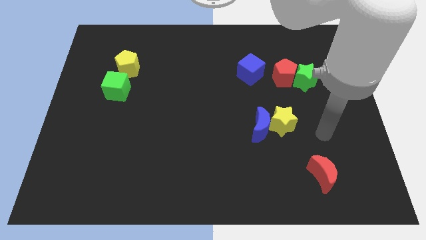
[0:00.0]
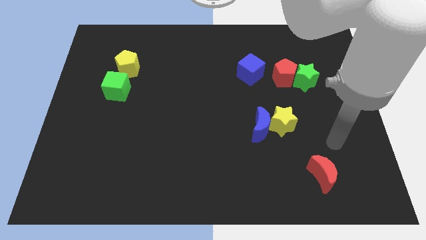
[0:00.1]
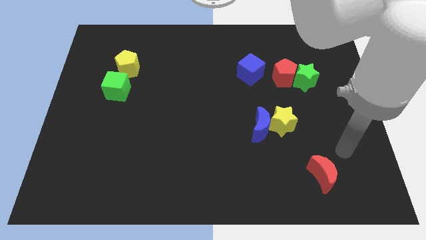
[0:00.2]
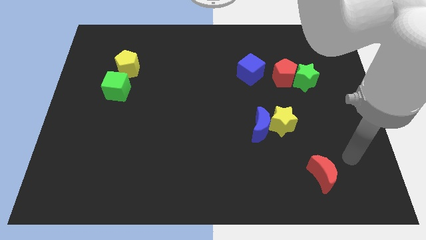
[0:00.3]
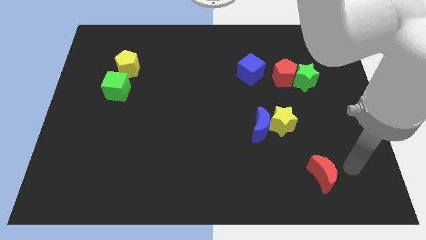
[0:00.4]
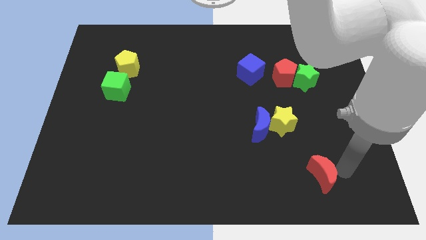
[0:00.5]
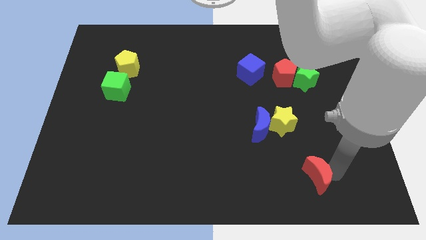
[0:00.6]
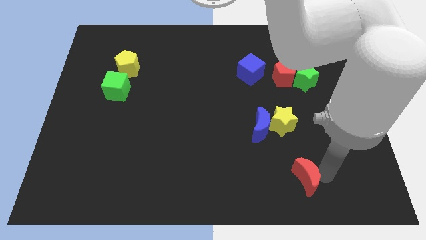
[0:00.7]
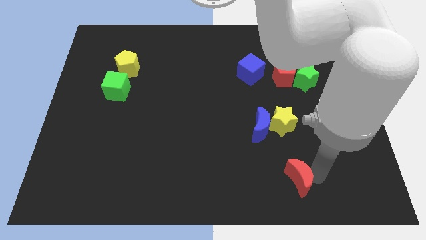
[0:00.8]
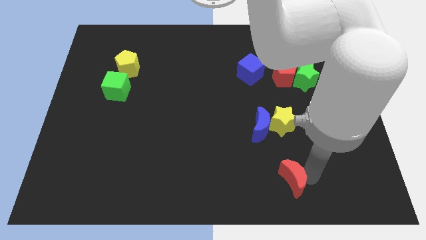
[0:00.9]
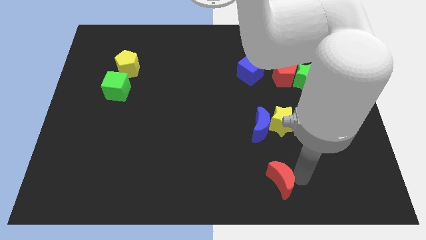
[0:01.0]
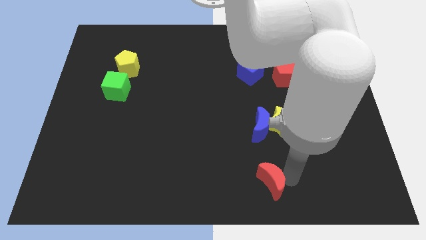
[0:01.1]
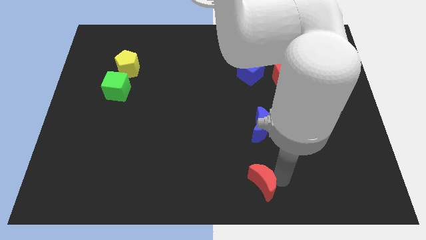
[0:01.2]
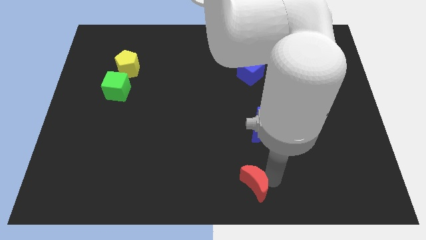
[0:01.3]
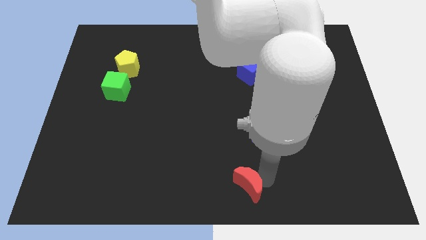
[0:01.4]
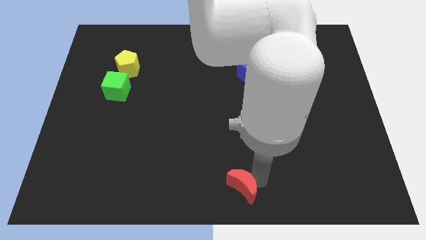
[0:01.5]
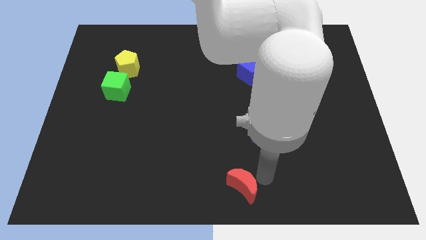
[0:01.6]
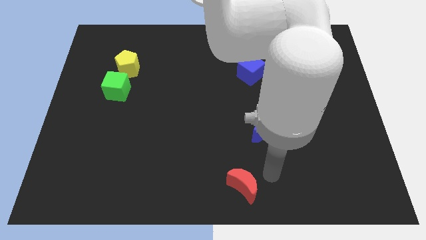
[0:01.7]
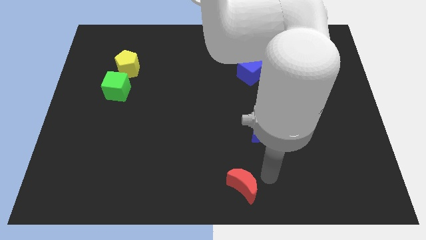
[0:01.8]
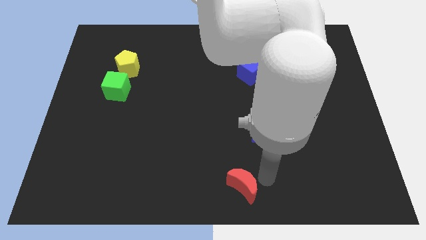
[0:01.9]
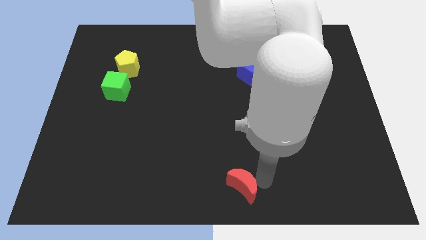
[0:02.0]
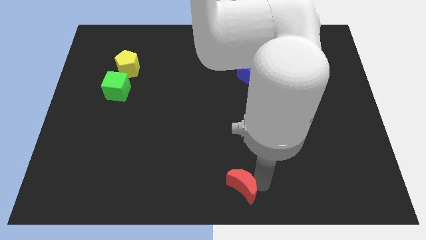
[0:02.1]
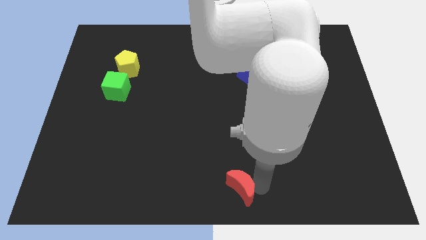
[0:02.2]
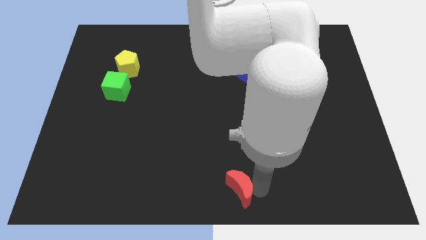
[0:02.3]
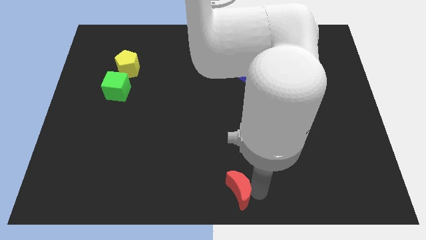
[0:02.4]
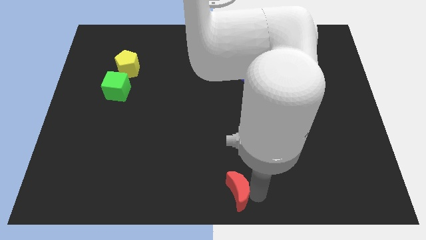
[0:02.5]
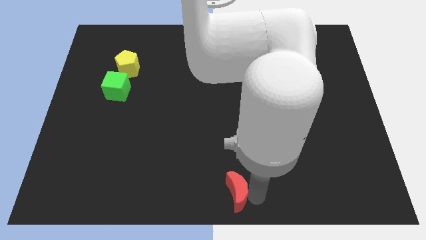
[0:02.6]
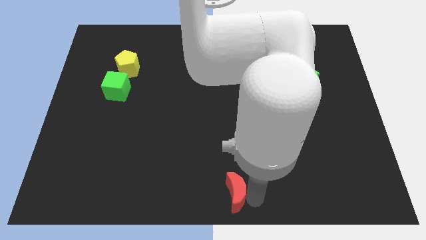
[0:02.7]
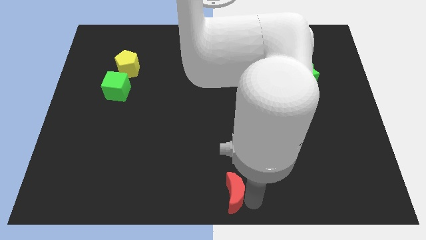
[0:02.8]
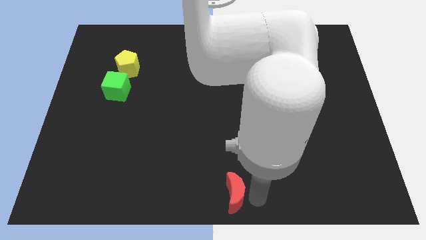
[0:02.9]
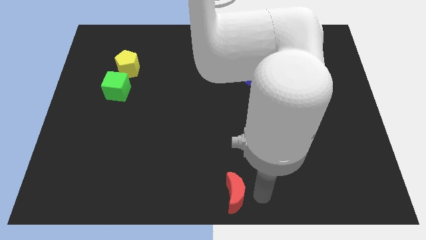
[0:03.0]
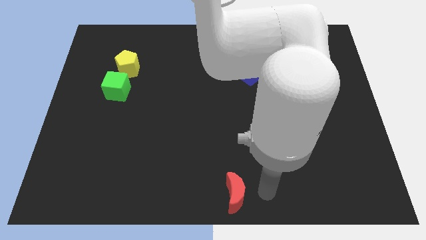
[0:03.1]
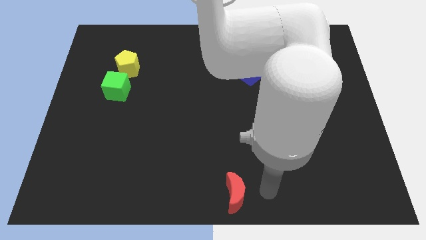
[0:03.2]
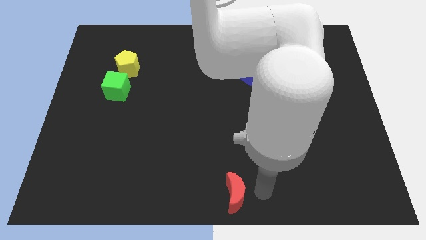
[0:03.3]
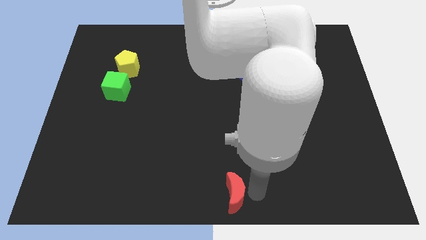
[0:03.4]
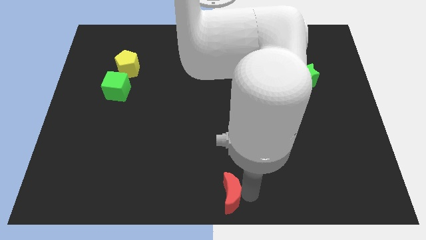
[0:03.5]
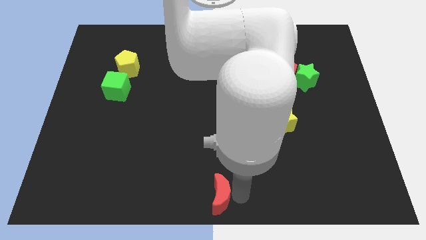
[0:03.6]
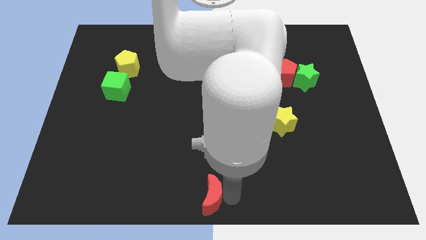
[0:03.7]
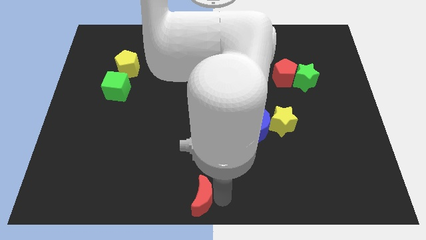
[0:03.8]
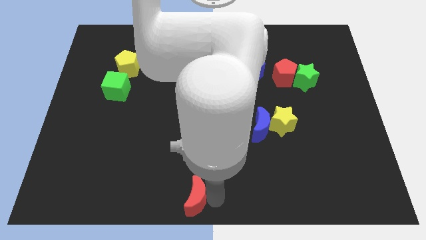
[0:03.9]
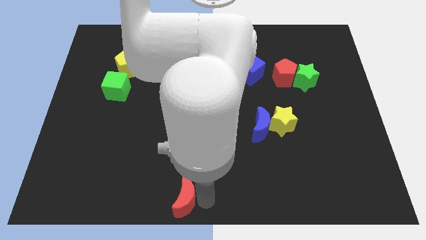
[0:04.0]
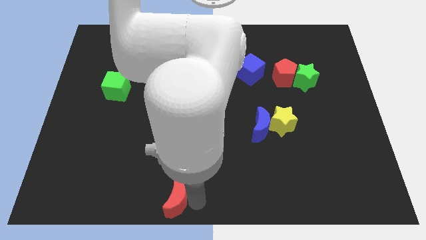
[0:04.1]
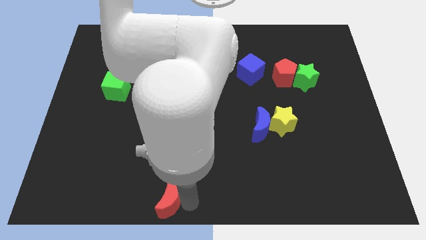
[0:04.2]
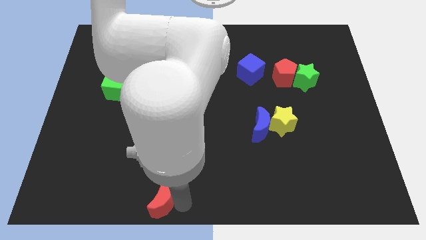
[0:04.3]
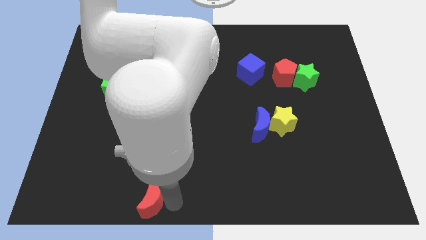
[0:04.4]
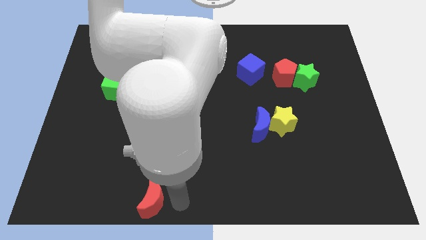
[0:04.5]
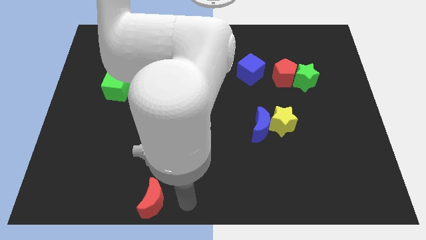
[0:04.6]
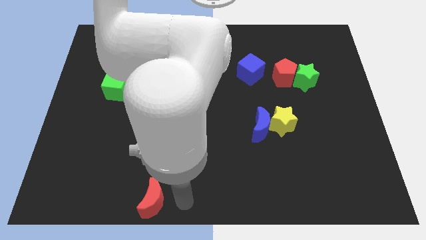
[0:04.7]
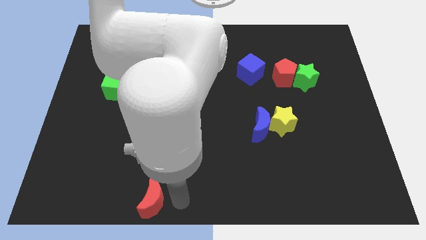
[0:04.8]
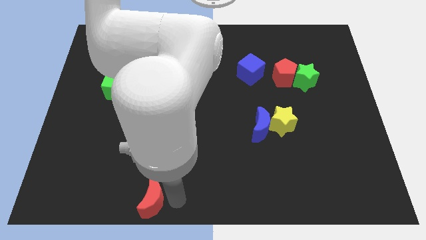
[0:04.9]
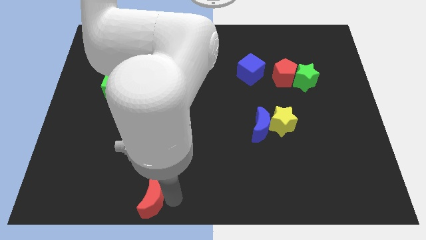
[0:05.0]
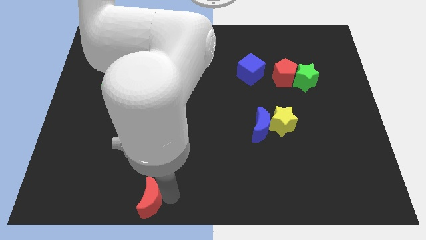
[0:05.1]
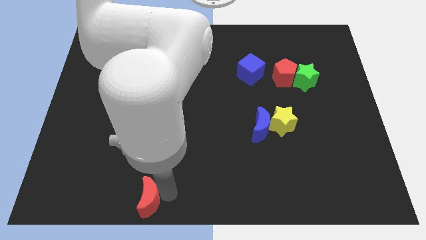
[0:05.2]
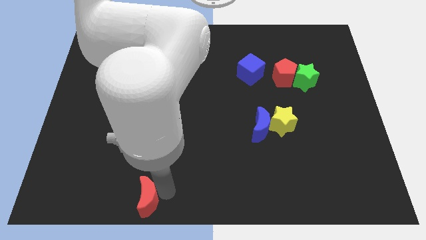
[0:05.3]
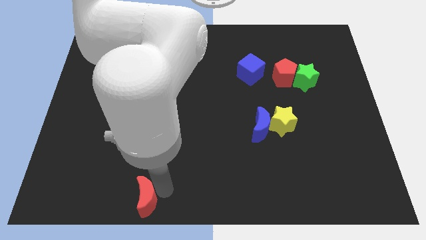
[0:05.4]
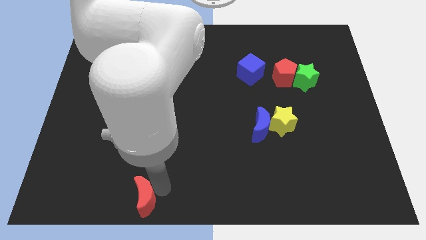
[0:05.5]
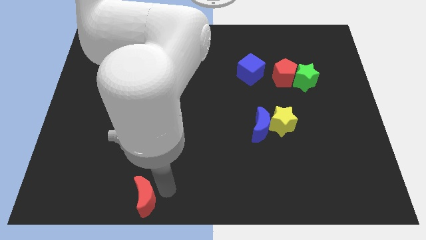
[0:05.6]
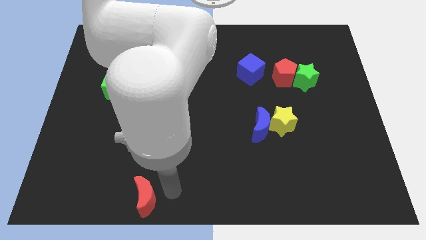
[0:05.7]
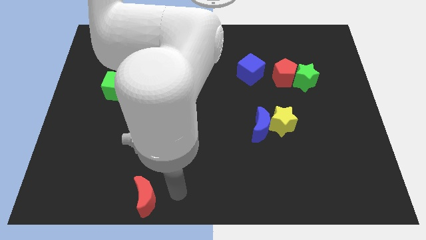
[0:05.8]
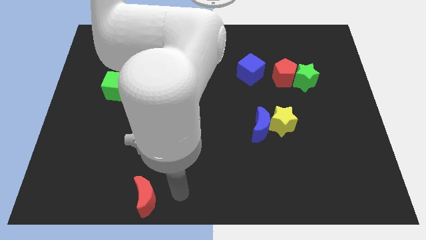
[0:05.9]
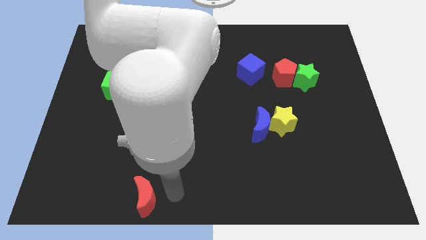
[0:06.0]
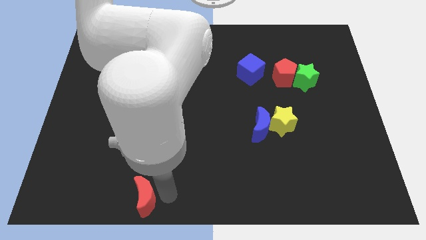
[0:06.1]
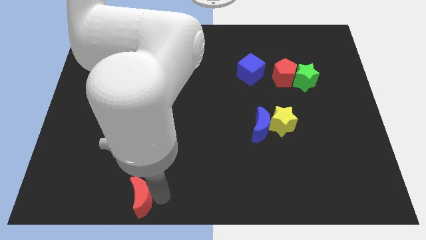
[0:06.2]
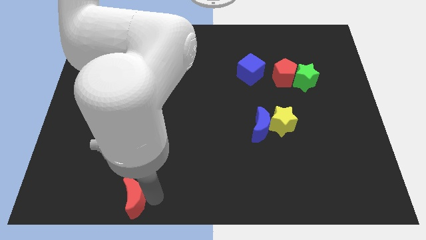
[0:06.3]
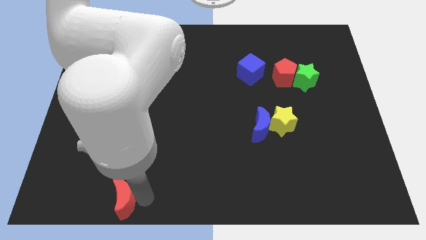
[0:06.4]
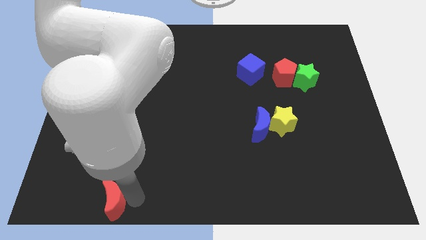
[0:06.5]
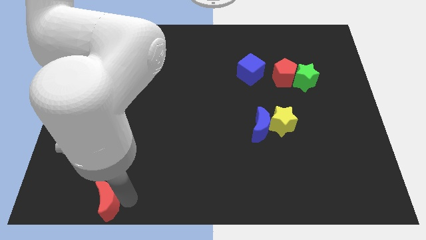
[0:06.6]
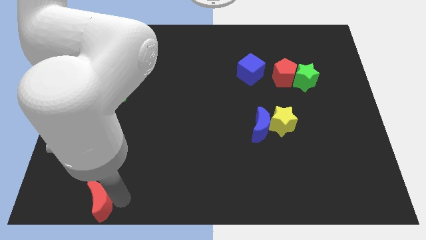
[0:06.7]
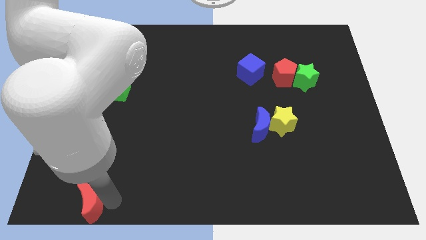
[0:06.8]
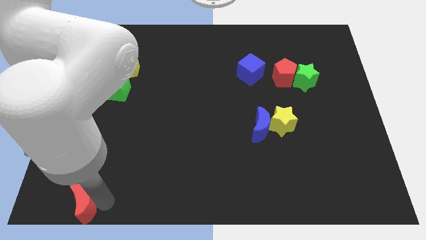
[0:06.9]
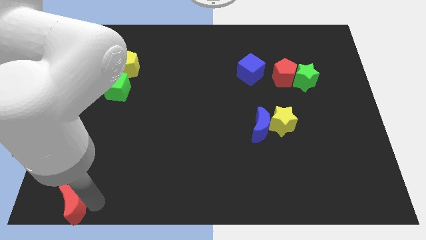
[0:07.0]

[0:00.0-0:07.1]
push the red moon to the bottom left of the board

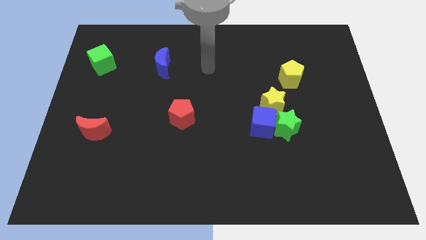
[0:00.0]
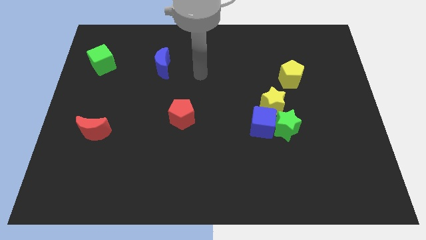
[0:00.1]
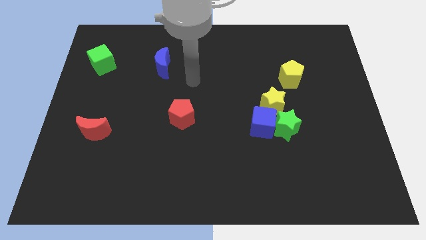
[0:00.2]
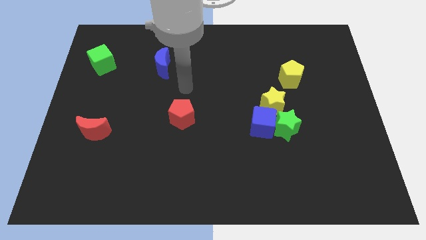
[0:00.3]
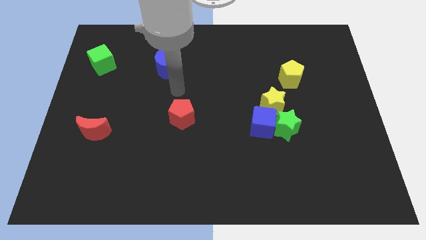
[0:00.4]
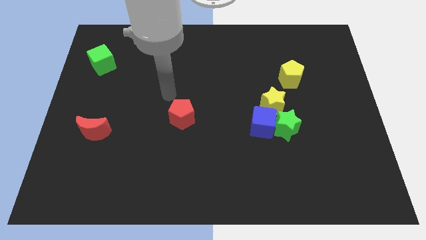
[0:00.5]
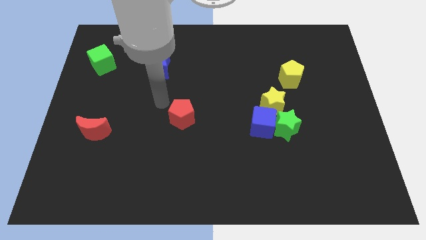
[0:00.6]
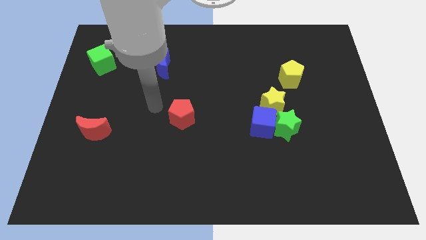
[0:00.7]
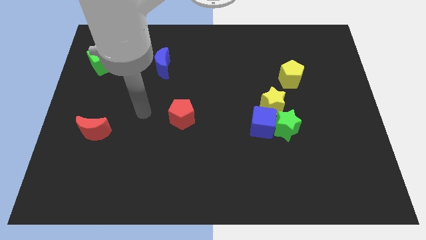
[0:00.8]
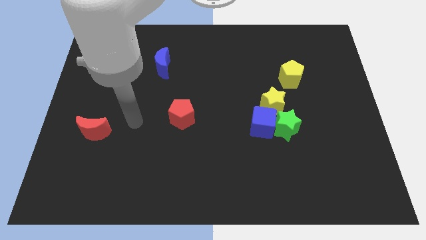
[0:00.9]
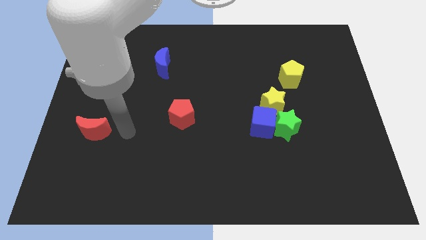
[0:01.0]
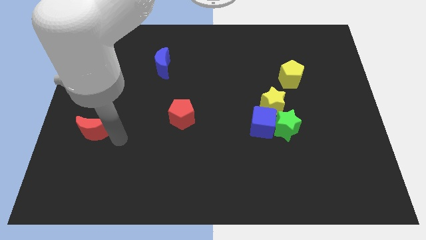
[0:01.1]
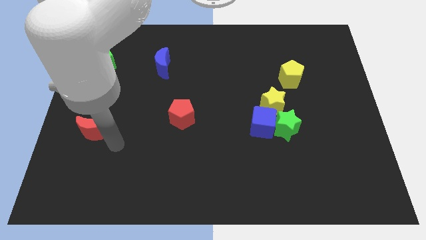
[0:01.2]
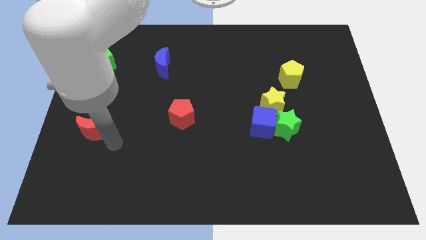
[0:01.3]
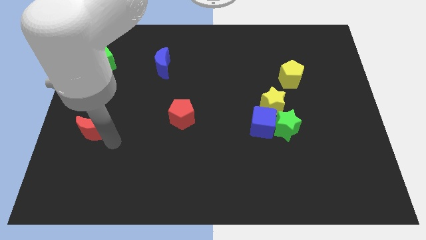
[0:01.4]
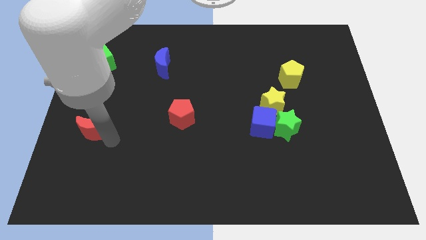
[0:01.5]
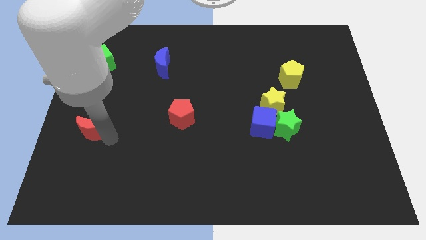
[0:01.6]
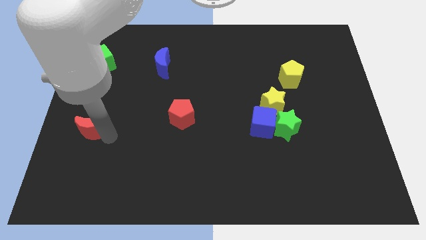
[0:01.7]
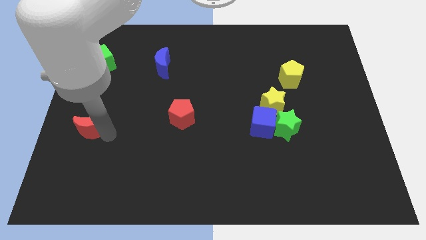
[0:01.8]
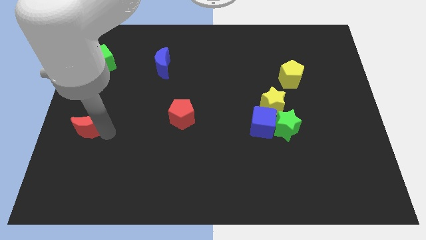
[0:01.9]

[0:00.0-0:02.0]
move the red moon to the center left
